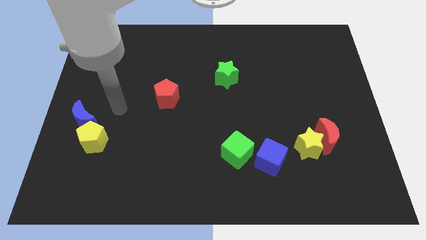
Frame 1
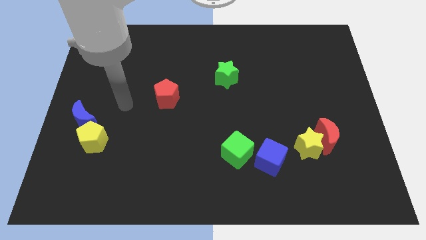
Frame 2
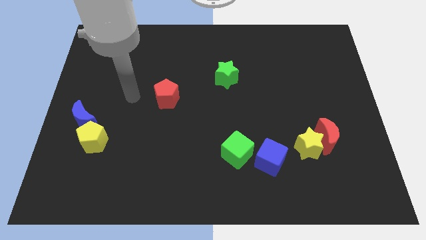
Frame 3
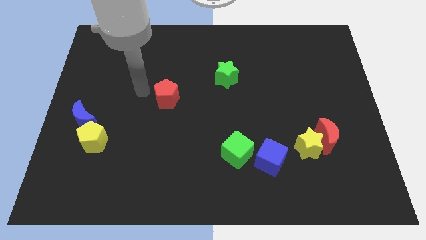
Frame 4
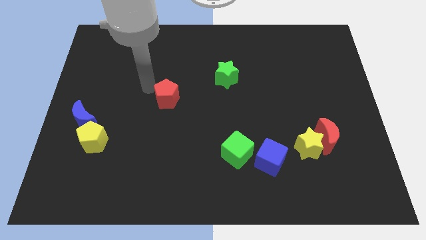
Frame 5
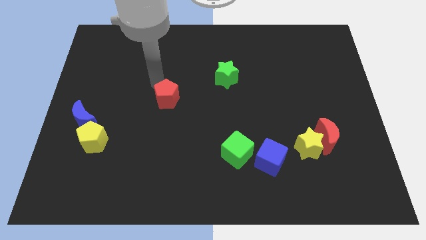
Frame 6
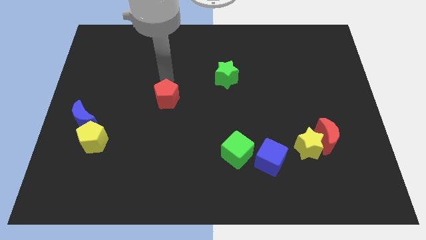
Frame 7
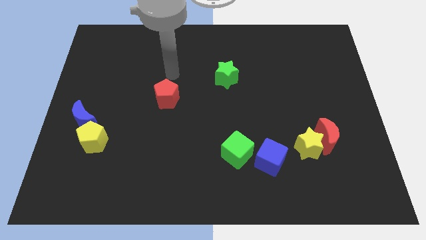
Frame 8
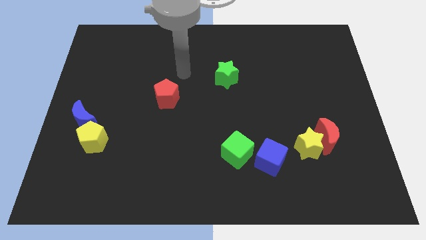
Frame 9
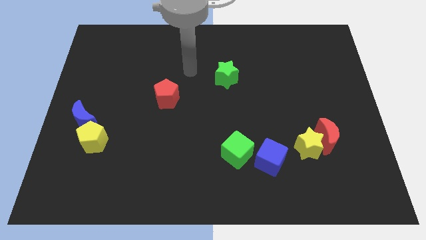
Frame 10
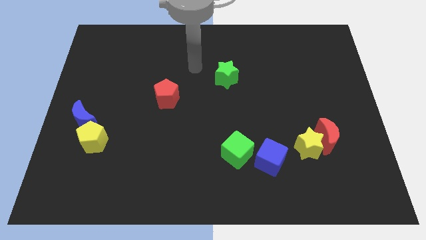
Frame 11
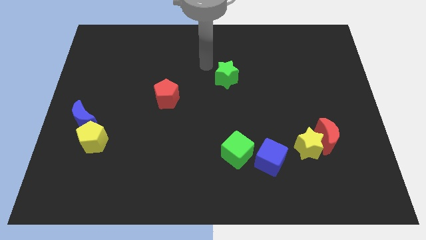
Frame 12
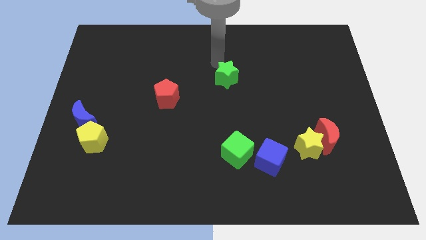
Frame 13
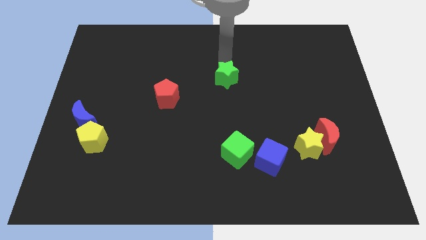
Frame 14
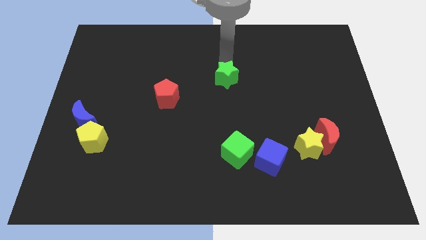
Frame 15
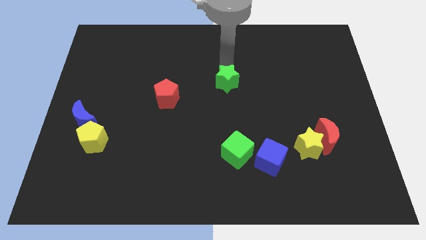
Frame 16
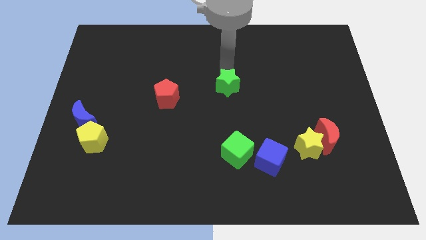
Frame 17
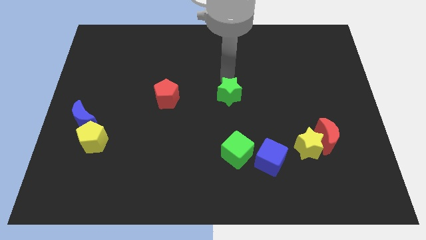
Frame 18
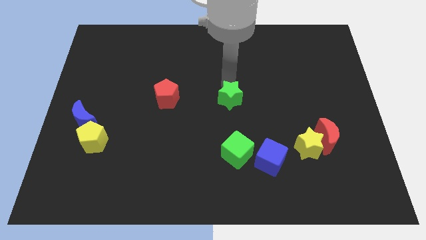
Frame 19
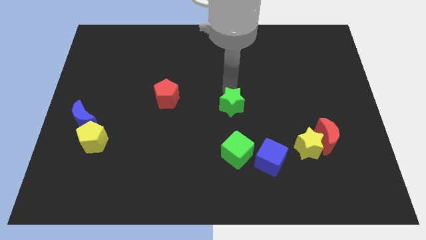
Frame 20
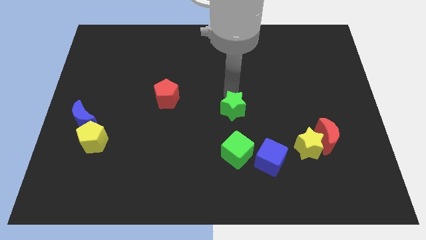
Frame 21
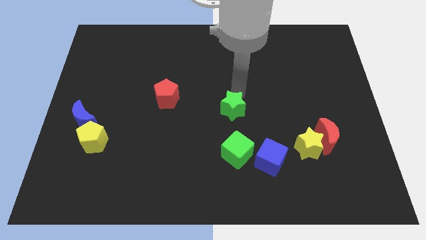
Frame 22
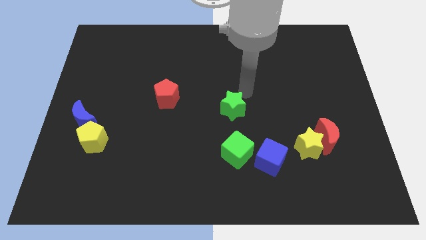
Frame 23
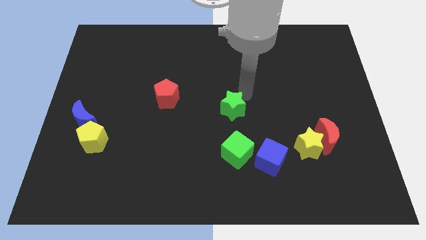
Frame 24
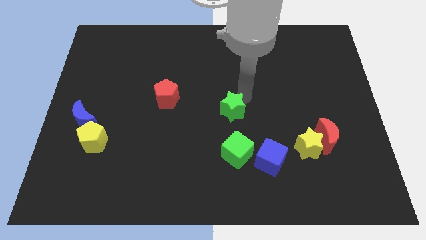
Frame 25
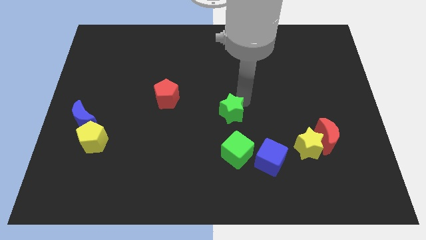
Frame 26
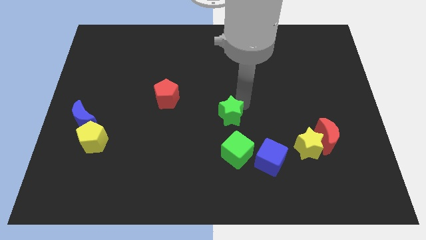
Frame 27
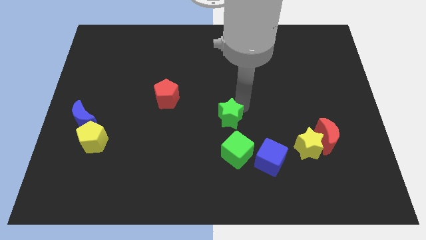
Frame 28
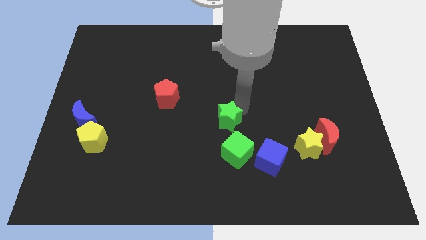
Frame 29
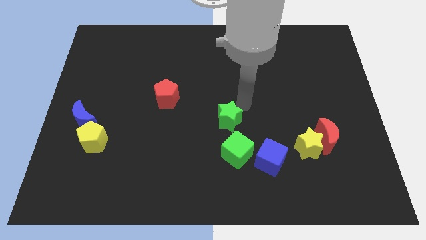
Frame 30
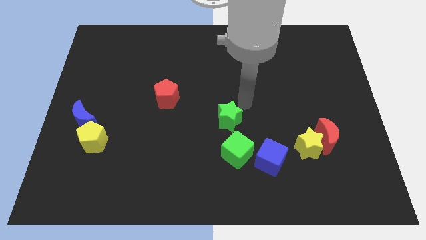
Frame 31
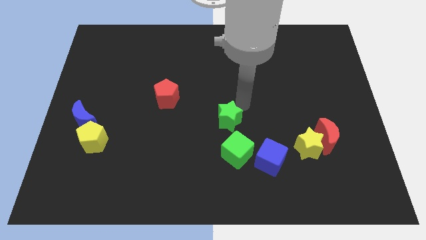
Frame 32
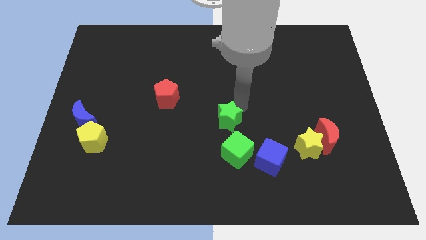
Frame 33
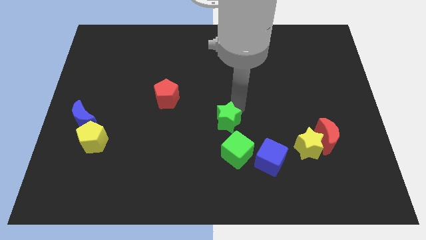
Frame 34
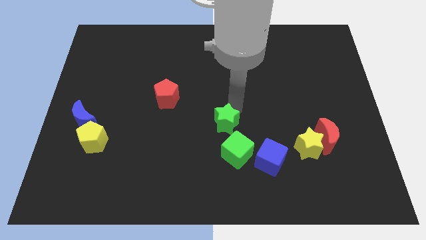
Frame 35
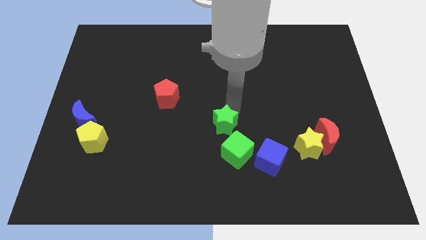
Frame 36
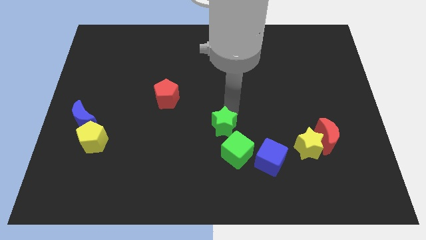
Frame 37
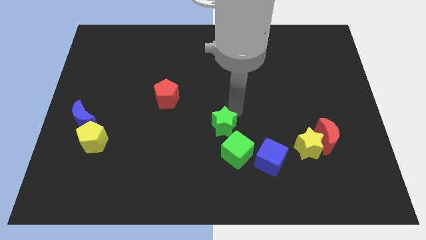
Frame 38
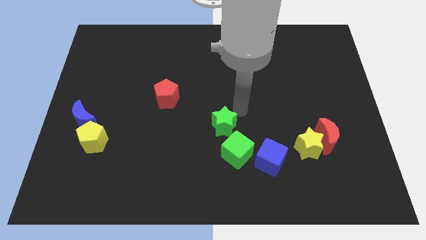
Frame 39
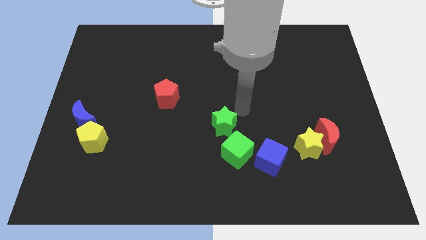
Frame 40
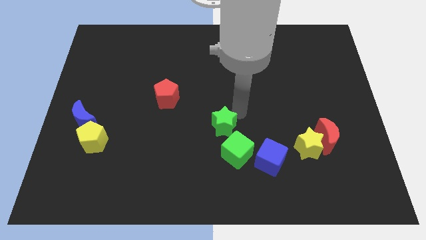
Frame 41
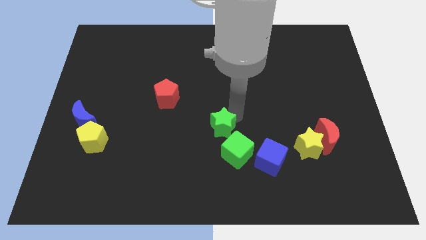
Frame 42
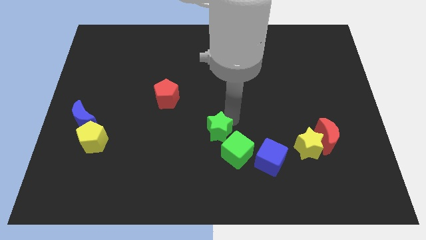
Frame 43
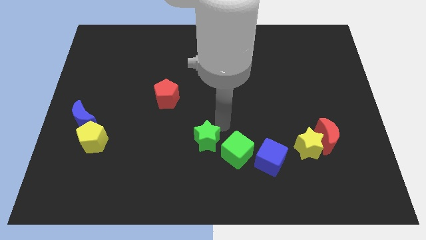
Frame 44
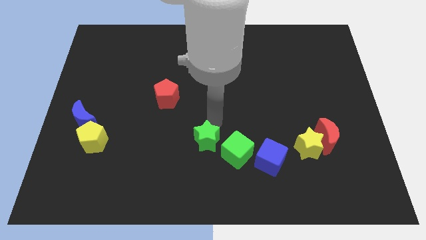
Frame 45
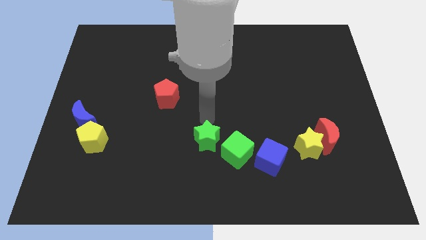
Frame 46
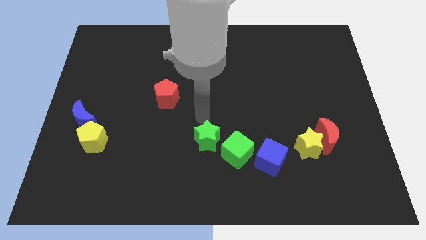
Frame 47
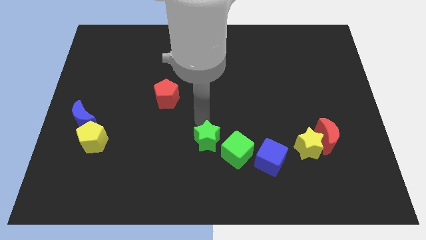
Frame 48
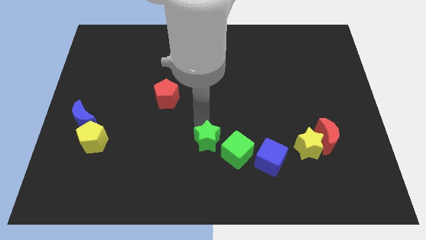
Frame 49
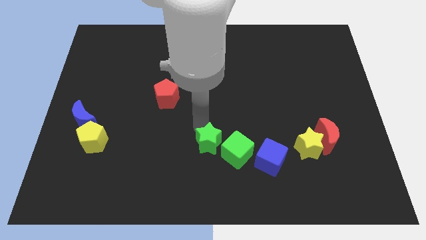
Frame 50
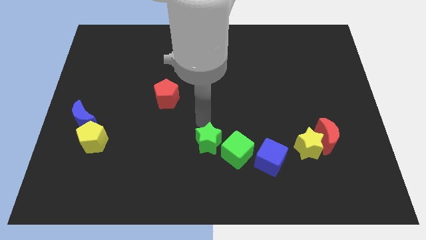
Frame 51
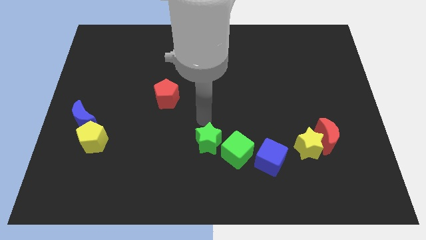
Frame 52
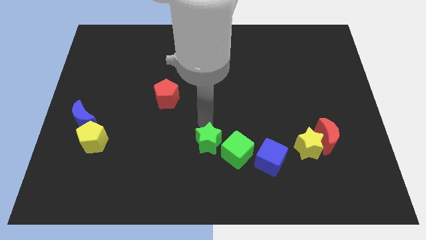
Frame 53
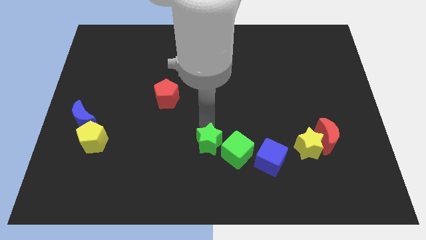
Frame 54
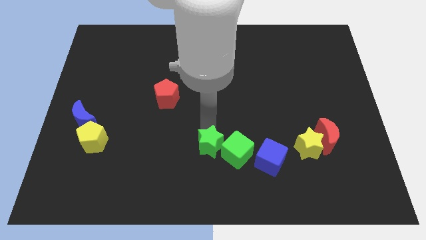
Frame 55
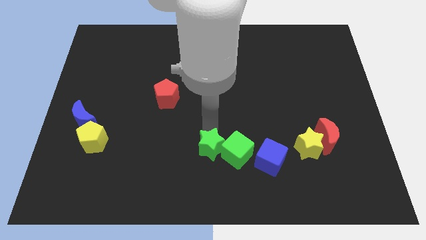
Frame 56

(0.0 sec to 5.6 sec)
slide the green star diagonally down and to the left of the green cube
